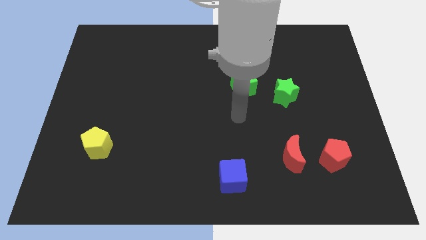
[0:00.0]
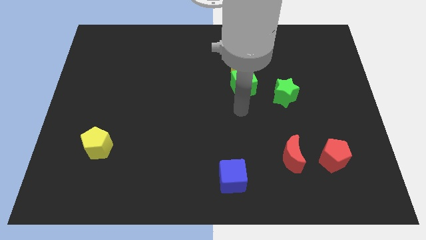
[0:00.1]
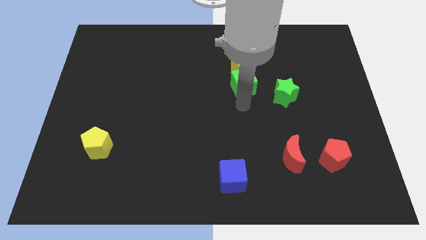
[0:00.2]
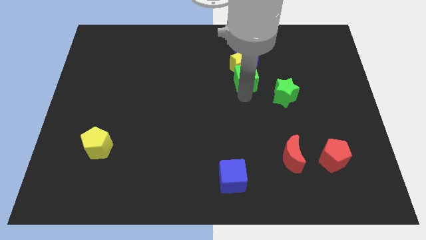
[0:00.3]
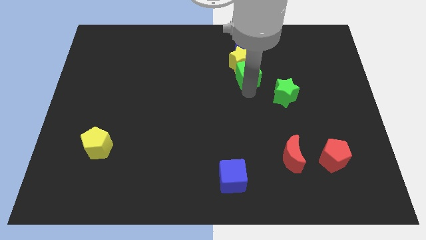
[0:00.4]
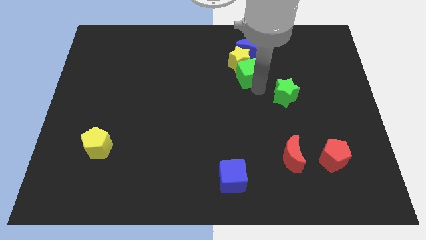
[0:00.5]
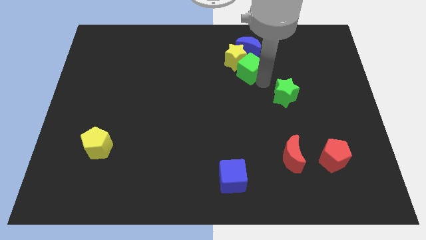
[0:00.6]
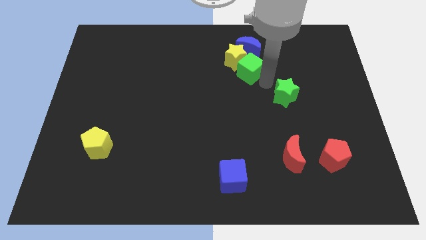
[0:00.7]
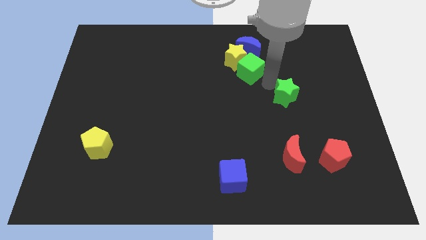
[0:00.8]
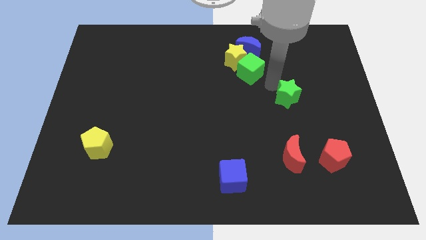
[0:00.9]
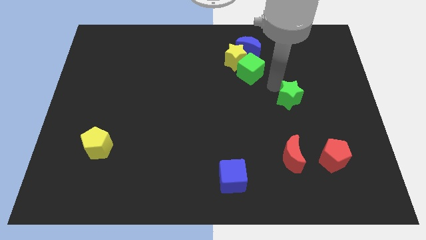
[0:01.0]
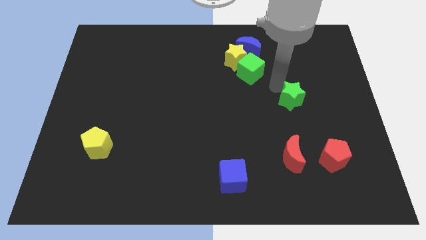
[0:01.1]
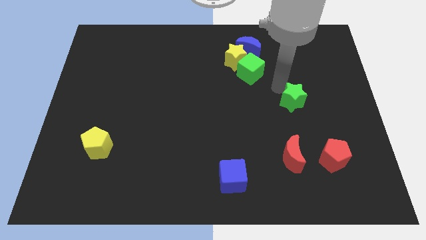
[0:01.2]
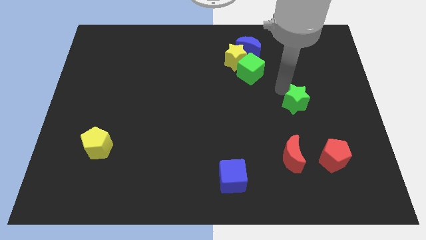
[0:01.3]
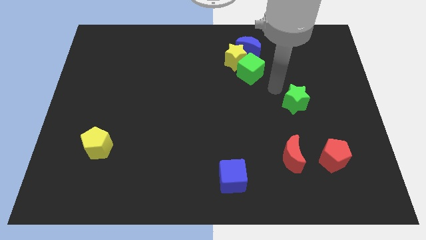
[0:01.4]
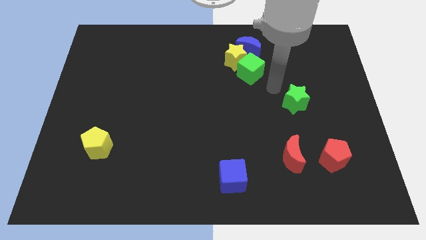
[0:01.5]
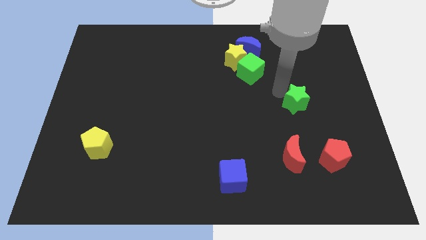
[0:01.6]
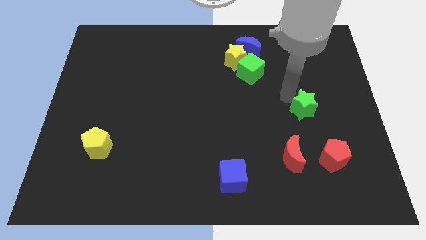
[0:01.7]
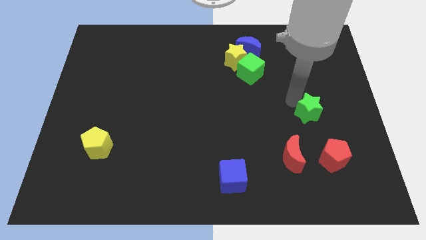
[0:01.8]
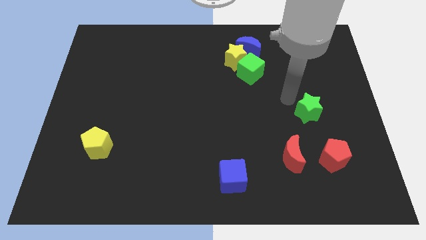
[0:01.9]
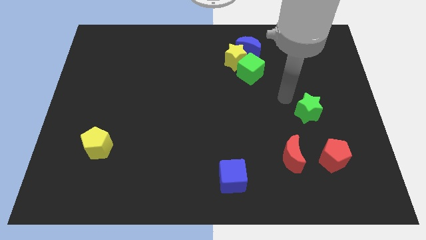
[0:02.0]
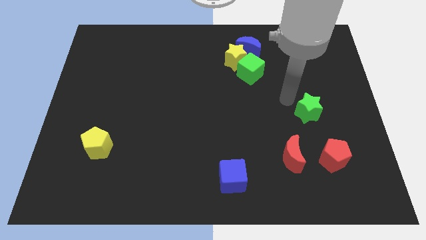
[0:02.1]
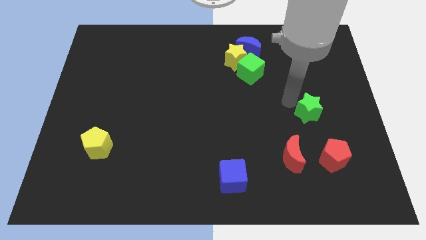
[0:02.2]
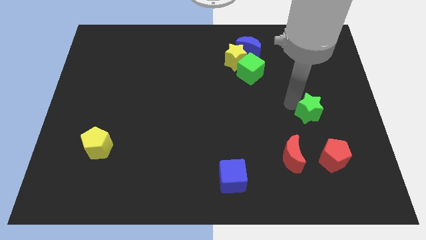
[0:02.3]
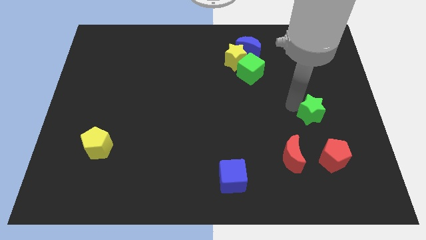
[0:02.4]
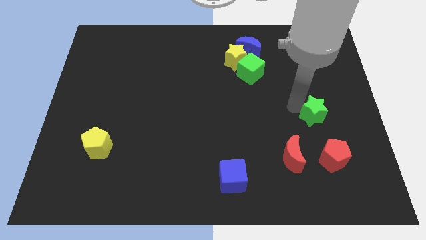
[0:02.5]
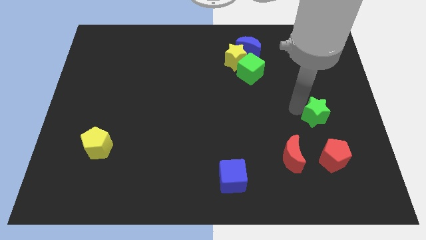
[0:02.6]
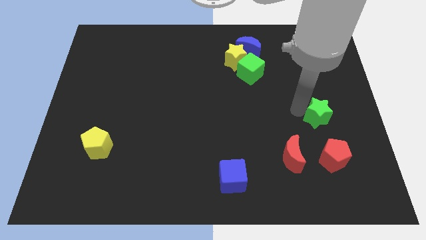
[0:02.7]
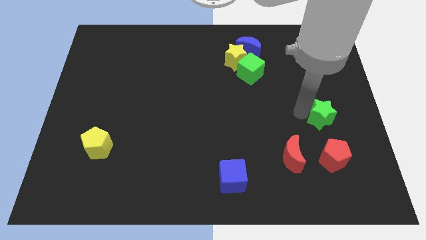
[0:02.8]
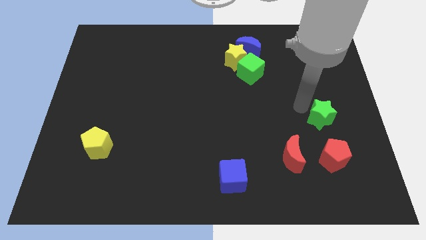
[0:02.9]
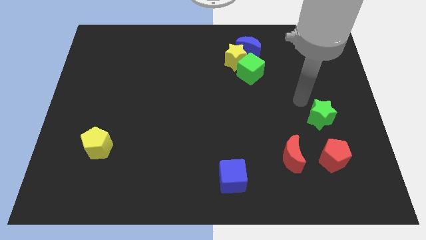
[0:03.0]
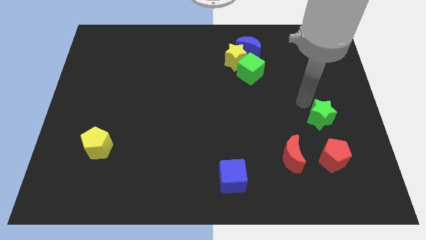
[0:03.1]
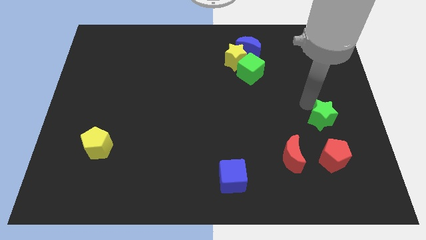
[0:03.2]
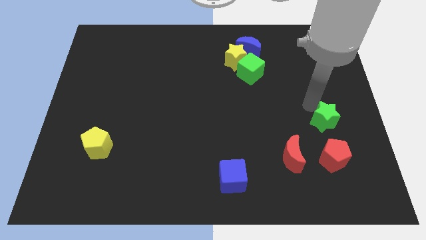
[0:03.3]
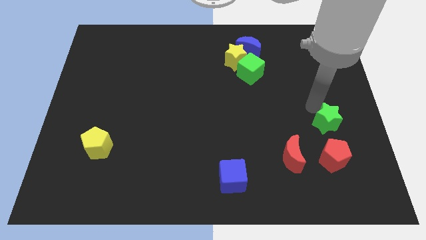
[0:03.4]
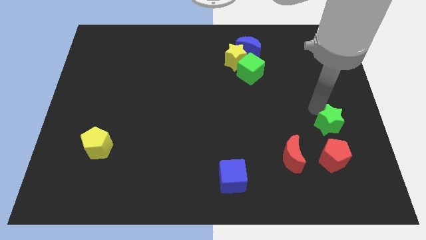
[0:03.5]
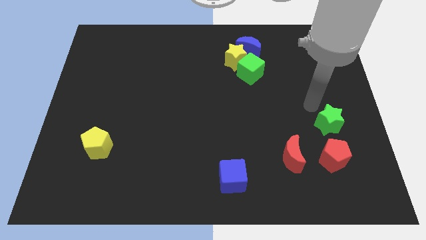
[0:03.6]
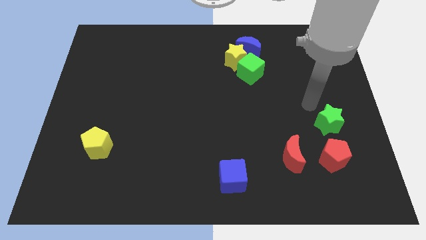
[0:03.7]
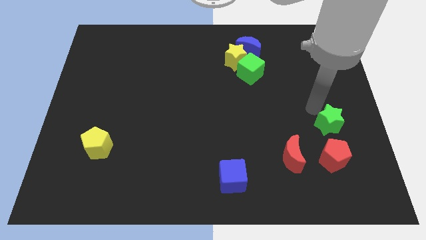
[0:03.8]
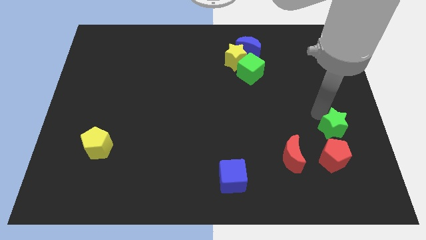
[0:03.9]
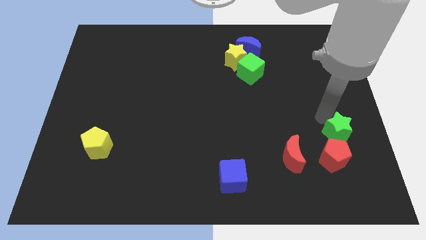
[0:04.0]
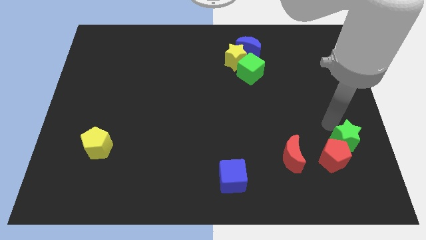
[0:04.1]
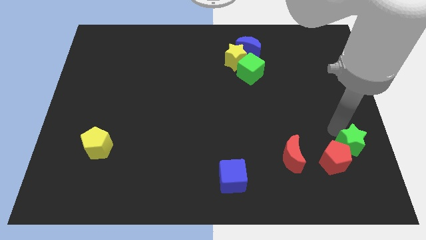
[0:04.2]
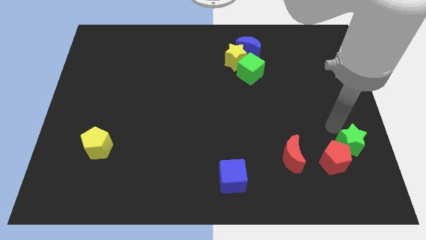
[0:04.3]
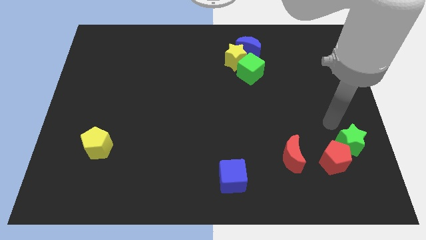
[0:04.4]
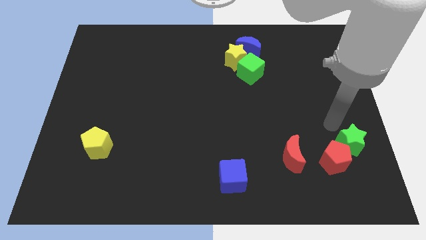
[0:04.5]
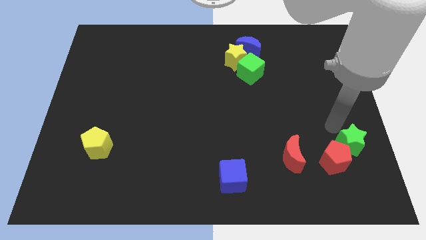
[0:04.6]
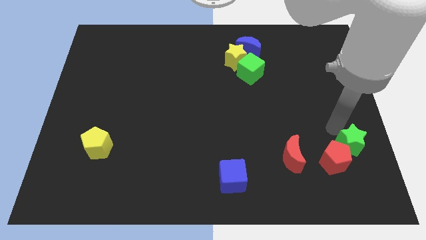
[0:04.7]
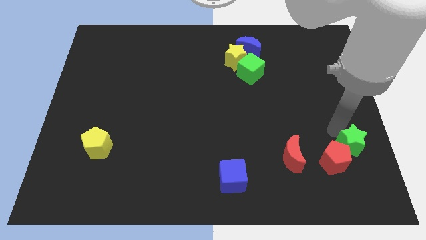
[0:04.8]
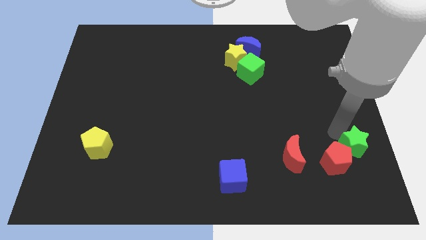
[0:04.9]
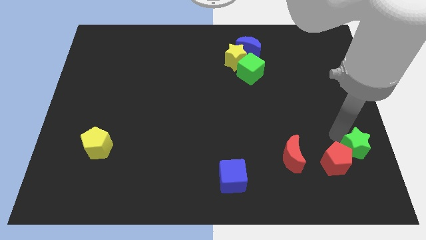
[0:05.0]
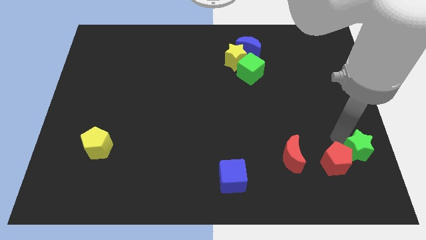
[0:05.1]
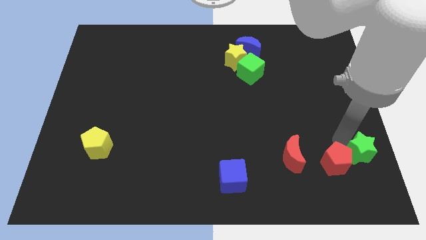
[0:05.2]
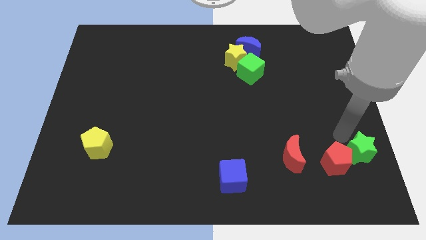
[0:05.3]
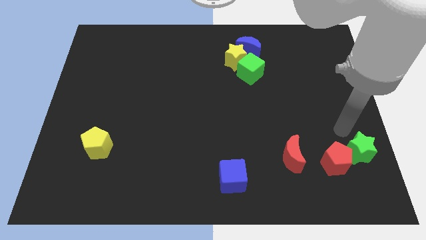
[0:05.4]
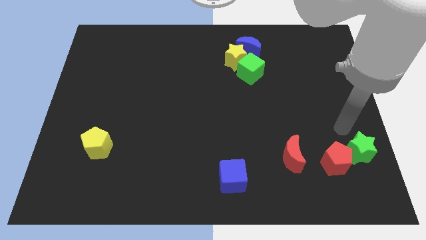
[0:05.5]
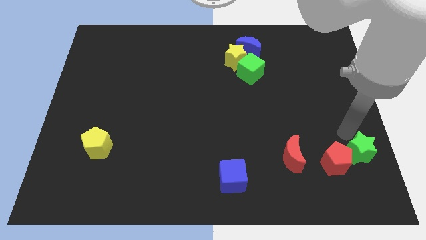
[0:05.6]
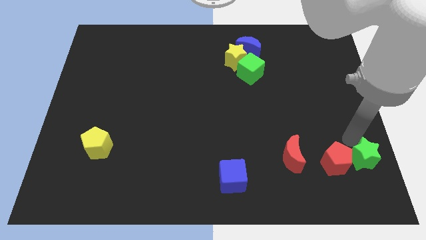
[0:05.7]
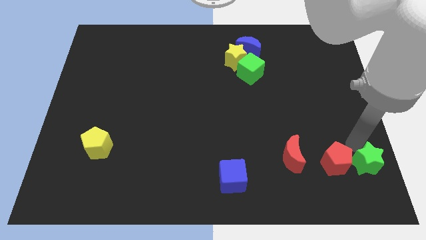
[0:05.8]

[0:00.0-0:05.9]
put the green star to the lower right corner
